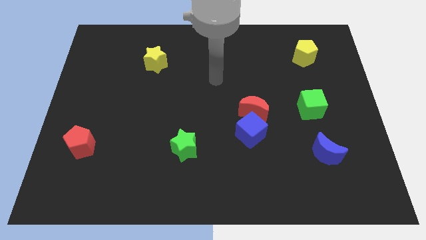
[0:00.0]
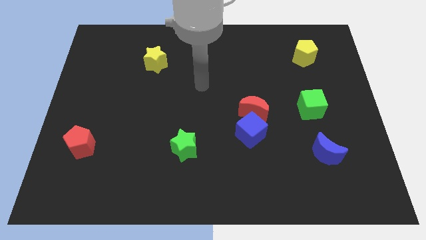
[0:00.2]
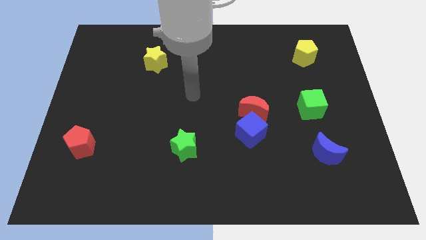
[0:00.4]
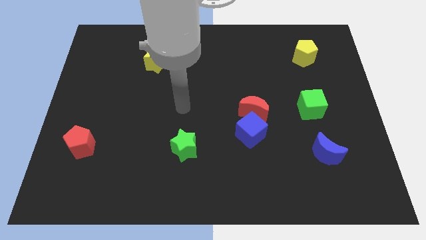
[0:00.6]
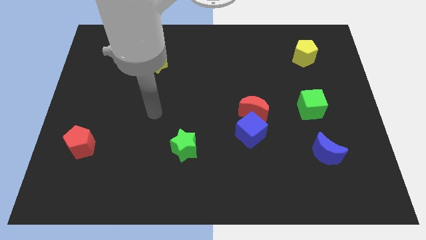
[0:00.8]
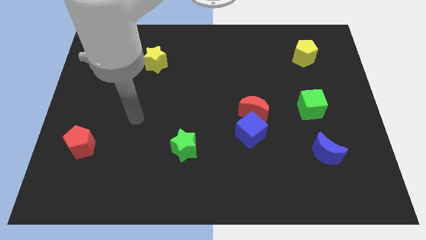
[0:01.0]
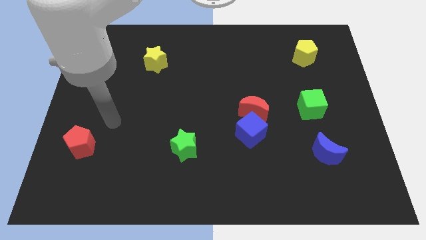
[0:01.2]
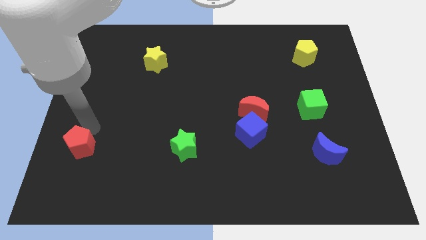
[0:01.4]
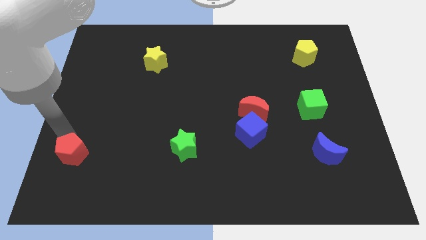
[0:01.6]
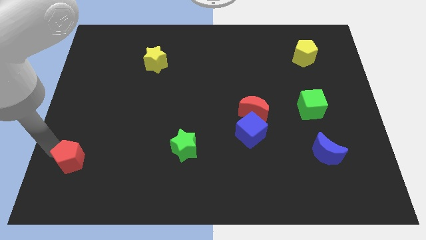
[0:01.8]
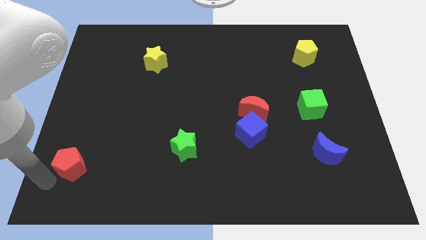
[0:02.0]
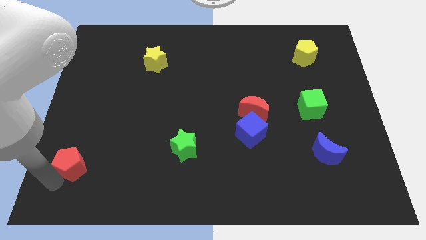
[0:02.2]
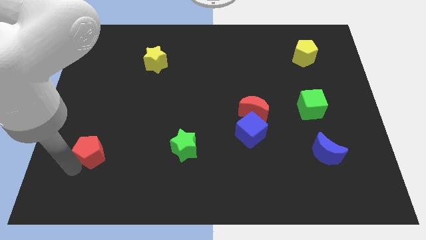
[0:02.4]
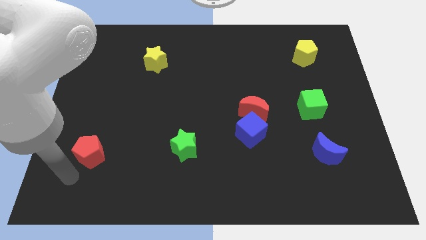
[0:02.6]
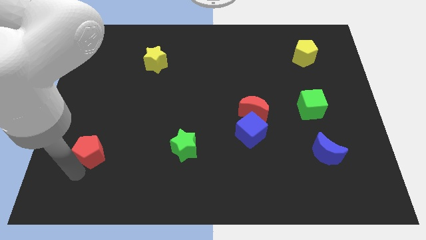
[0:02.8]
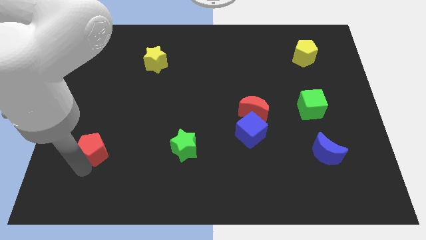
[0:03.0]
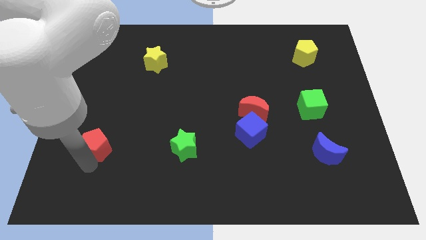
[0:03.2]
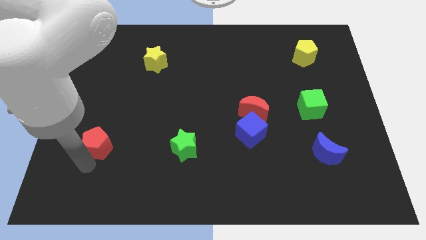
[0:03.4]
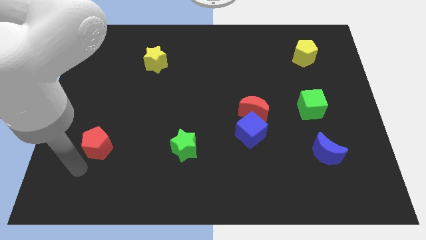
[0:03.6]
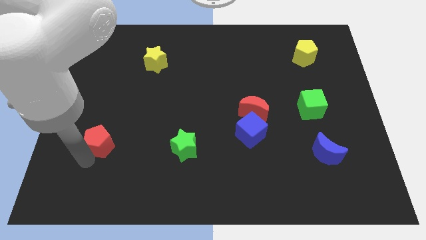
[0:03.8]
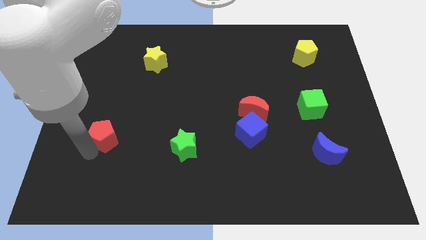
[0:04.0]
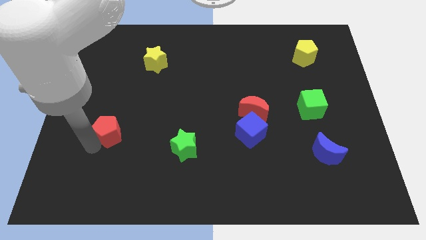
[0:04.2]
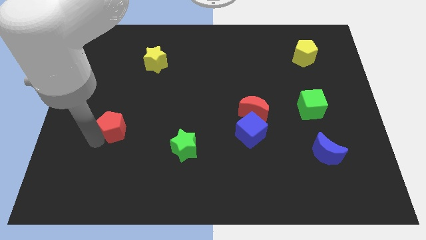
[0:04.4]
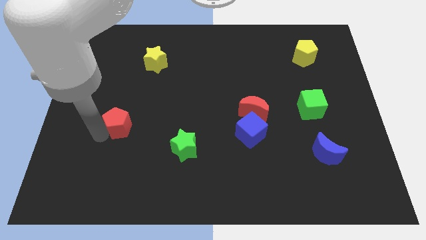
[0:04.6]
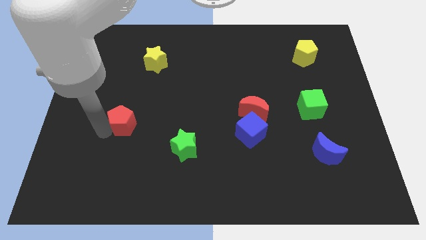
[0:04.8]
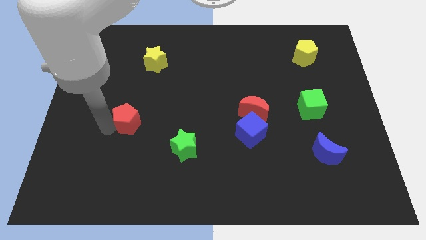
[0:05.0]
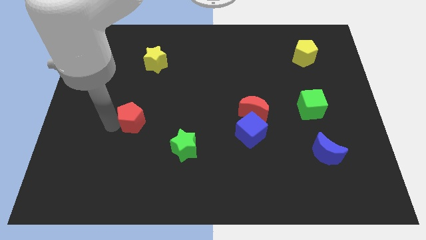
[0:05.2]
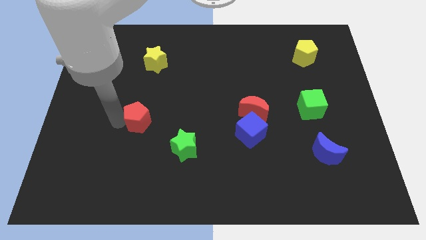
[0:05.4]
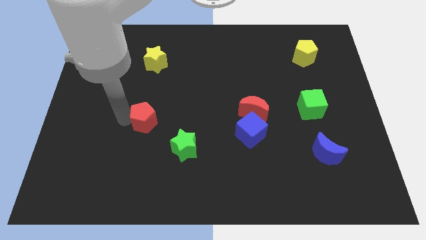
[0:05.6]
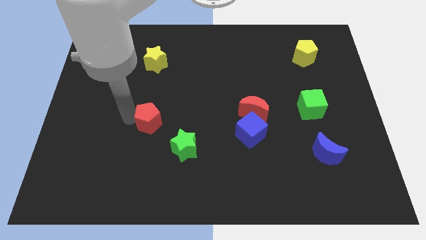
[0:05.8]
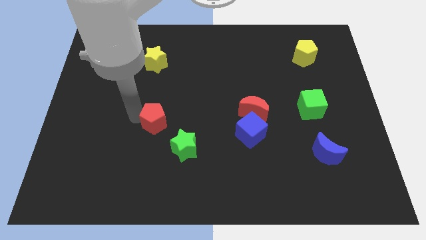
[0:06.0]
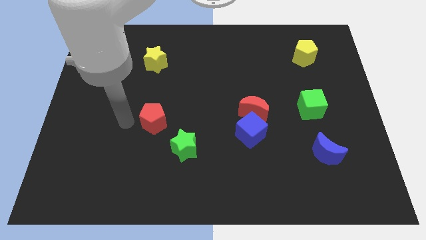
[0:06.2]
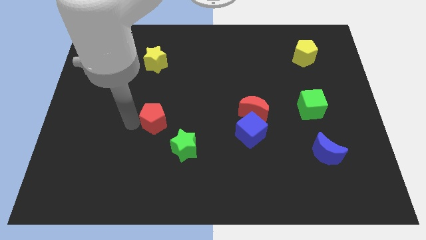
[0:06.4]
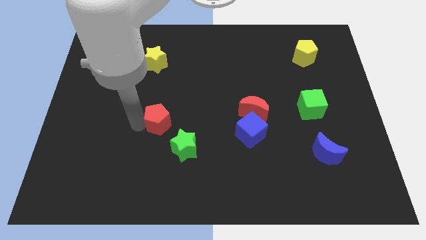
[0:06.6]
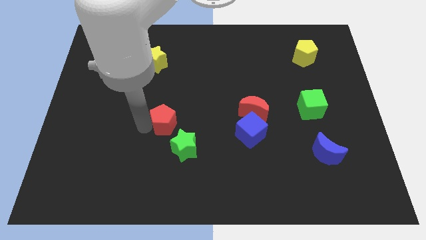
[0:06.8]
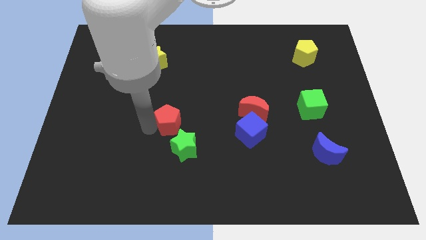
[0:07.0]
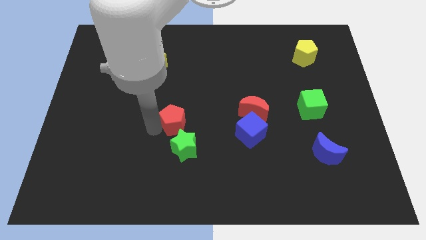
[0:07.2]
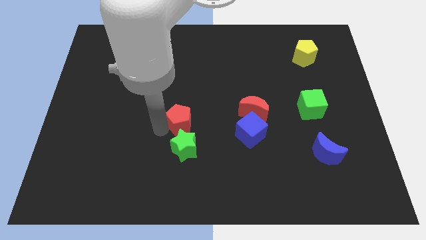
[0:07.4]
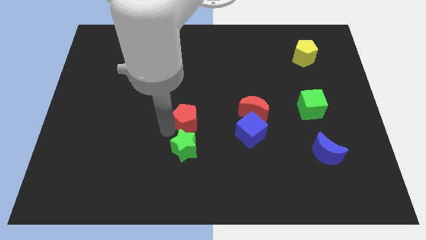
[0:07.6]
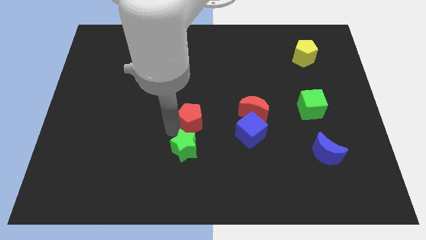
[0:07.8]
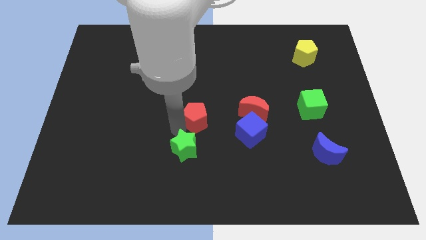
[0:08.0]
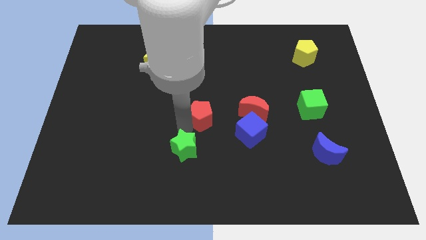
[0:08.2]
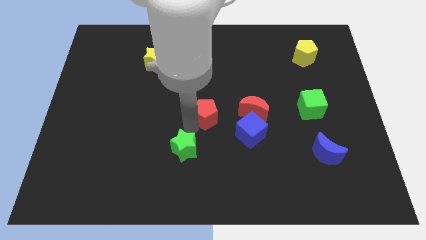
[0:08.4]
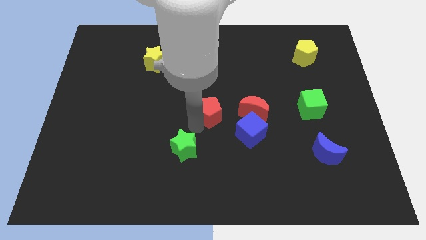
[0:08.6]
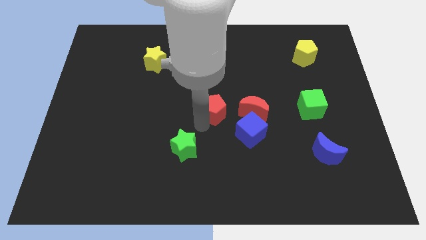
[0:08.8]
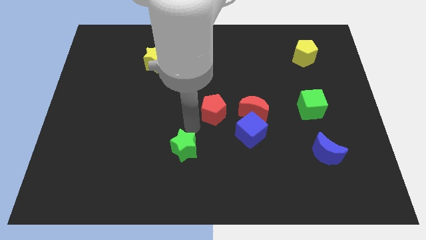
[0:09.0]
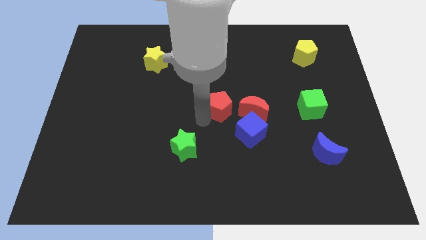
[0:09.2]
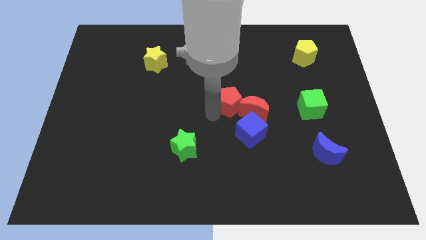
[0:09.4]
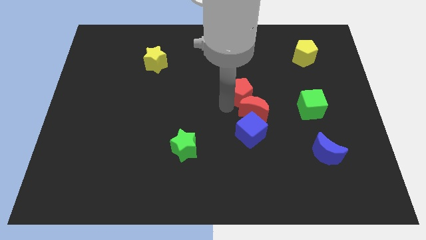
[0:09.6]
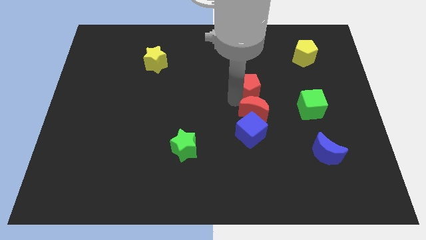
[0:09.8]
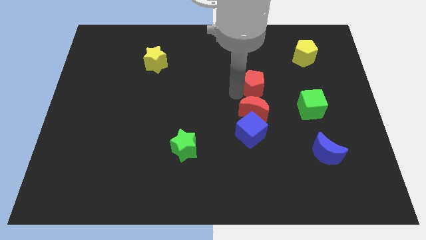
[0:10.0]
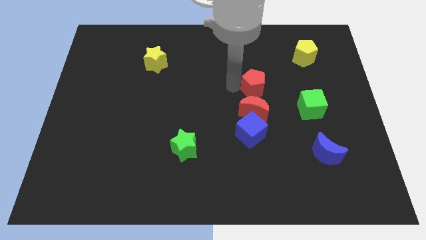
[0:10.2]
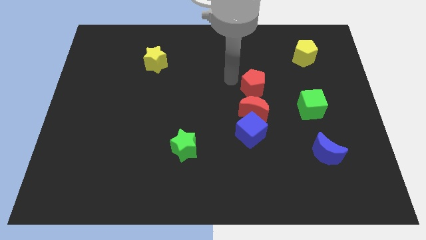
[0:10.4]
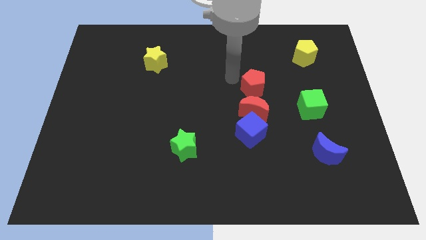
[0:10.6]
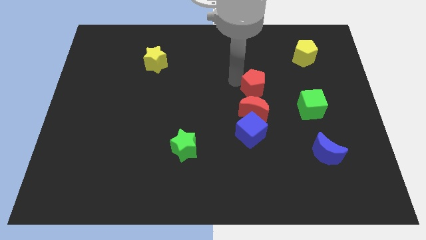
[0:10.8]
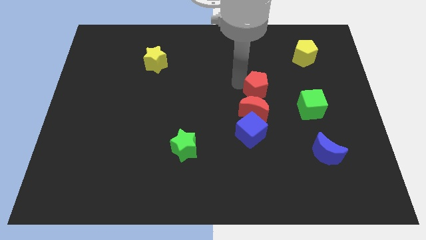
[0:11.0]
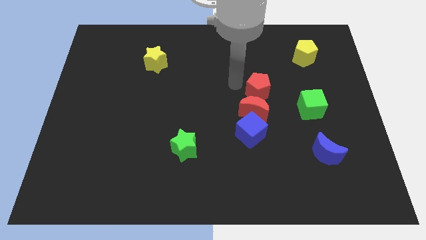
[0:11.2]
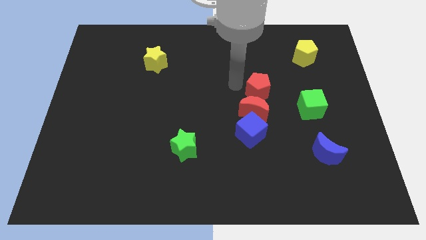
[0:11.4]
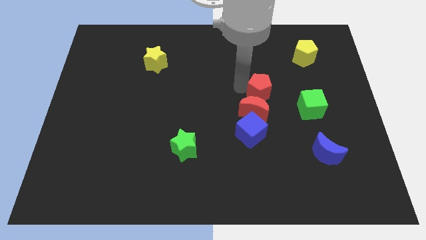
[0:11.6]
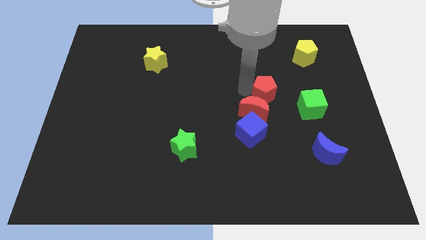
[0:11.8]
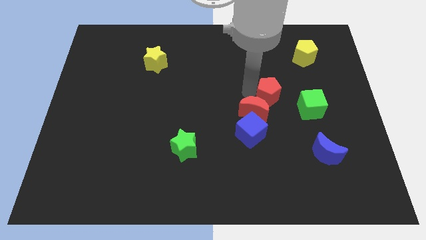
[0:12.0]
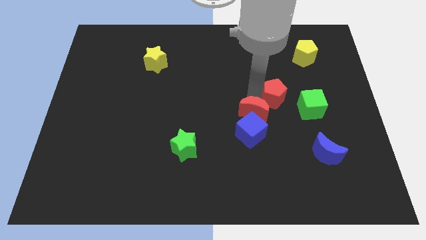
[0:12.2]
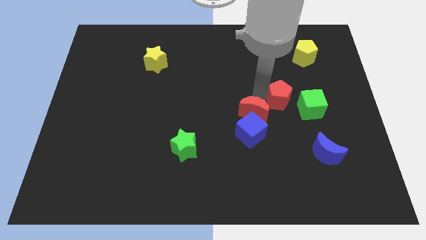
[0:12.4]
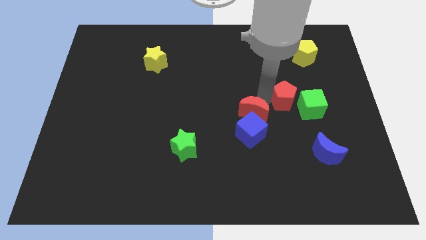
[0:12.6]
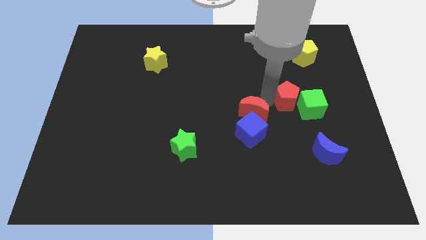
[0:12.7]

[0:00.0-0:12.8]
put the red pentagon towards the green cube

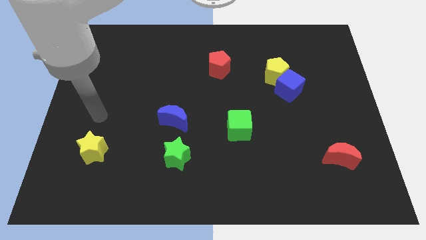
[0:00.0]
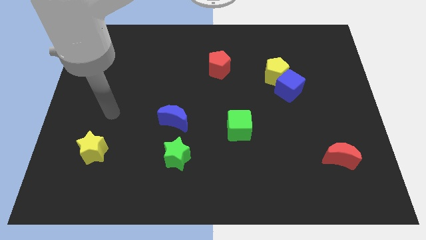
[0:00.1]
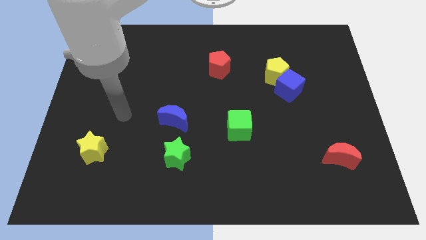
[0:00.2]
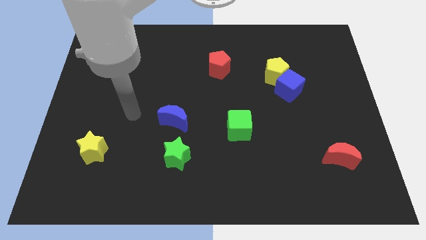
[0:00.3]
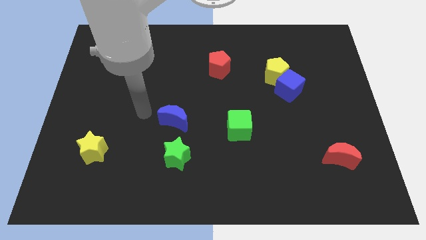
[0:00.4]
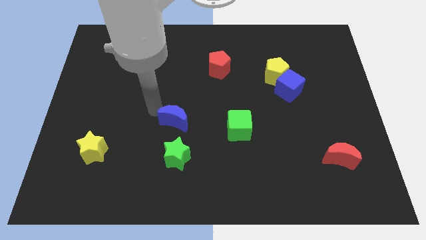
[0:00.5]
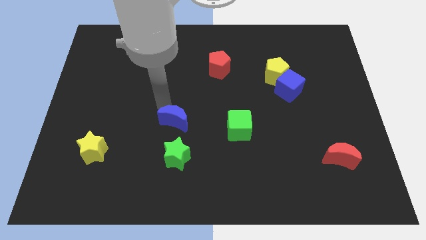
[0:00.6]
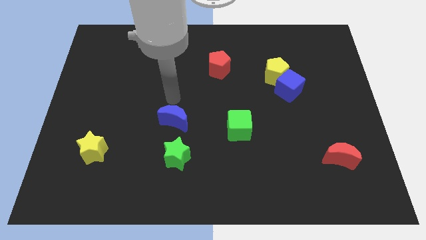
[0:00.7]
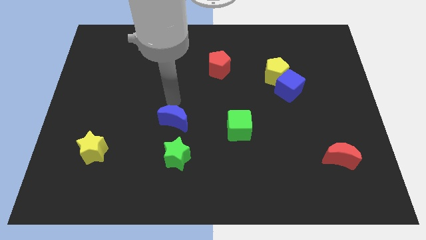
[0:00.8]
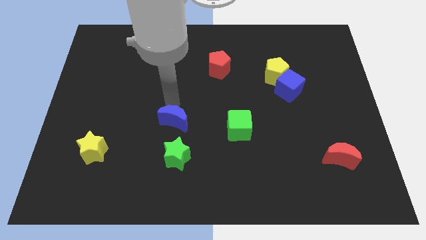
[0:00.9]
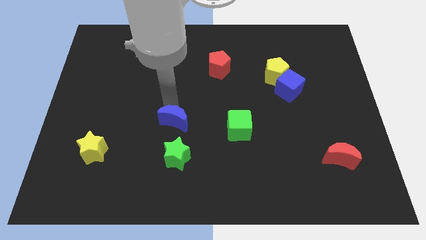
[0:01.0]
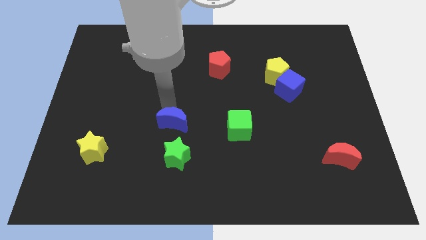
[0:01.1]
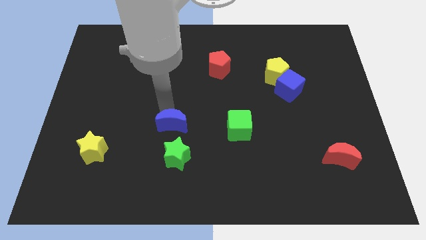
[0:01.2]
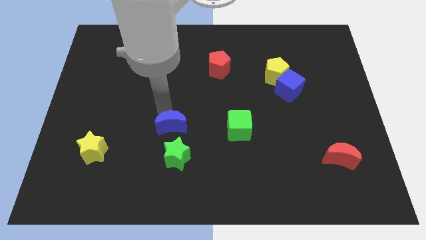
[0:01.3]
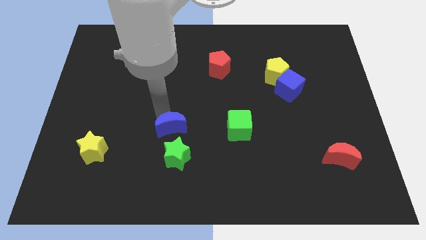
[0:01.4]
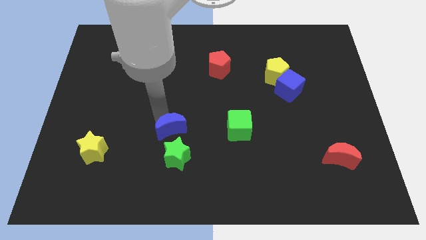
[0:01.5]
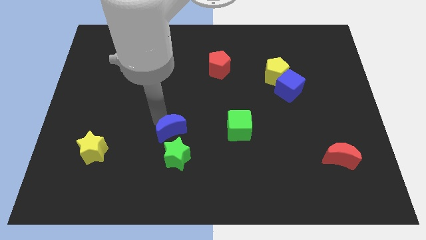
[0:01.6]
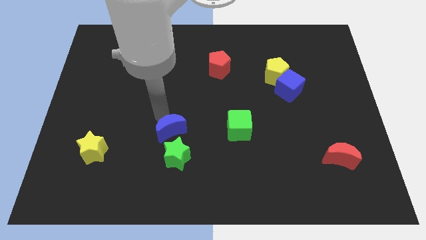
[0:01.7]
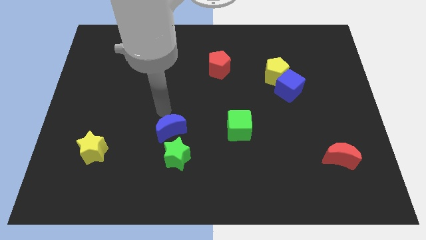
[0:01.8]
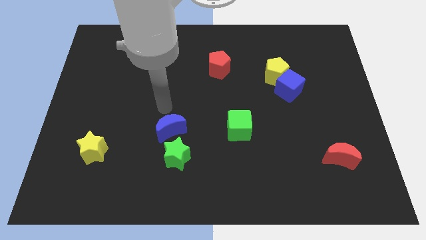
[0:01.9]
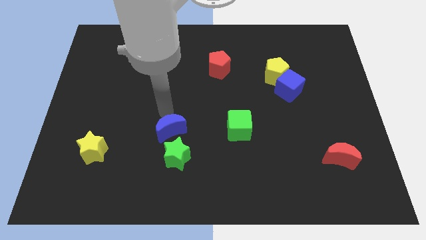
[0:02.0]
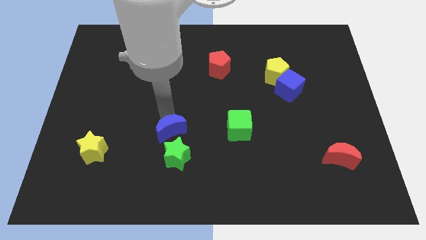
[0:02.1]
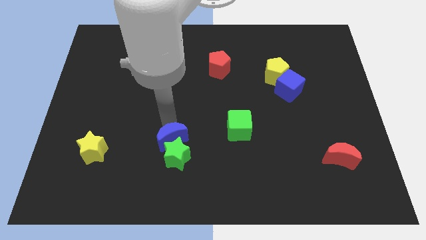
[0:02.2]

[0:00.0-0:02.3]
slide the blue moon to the green star
